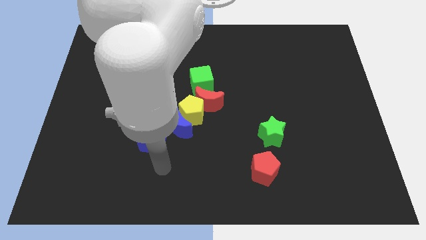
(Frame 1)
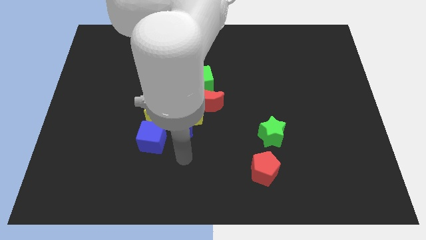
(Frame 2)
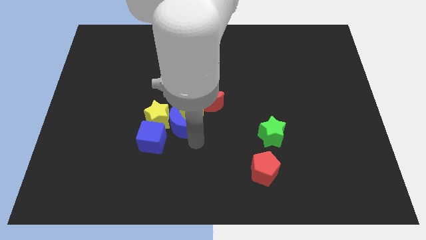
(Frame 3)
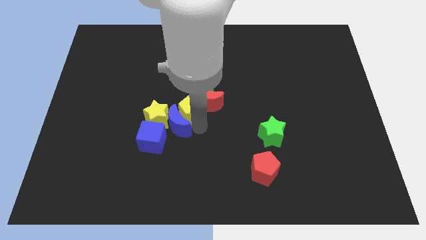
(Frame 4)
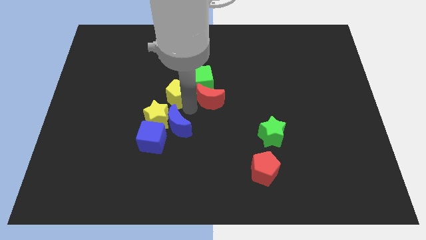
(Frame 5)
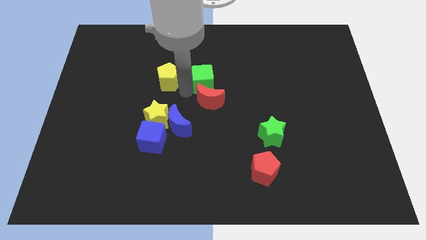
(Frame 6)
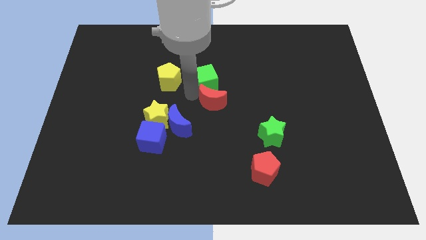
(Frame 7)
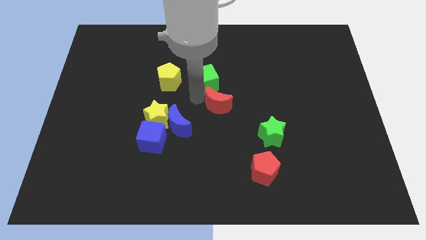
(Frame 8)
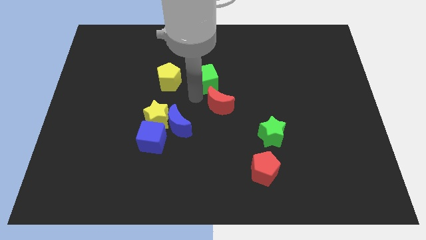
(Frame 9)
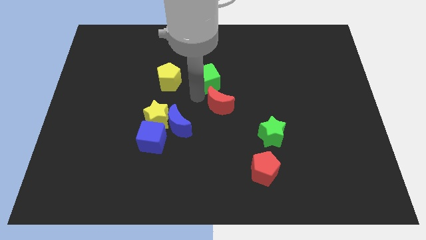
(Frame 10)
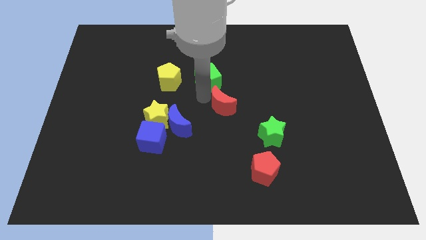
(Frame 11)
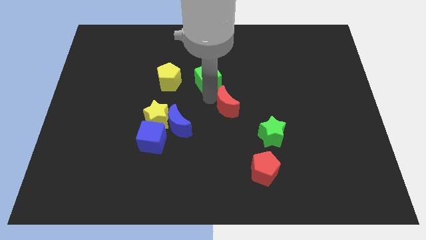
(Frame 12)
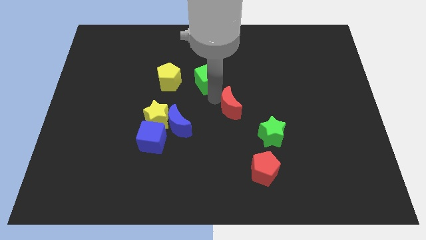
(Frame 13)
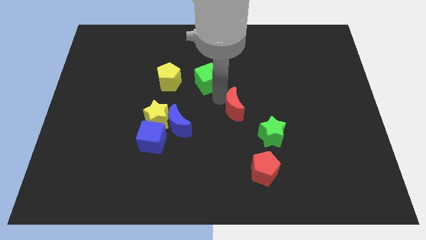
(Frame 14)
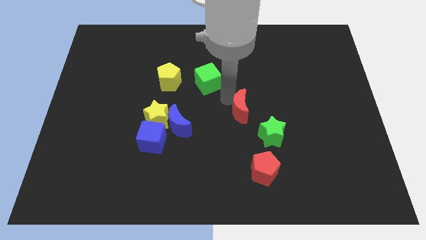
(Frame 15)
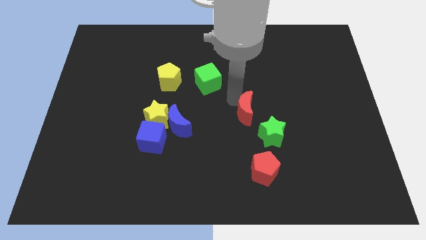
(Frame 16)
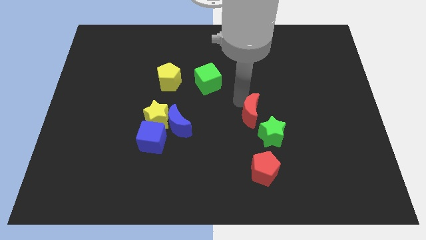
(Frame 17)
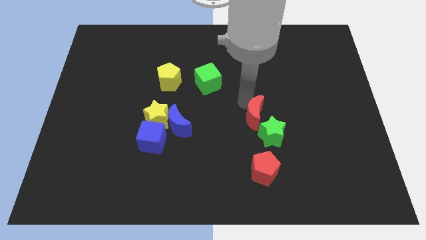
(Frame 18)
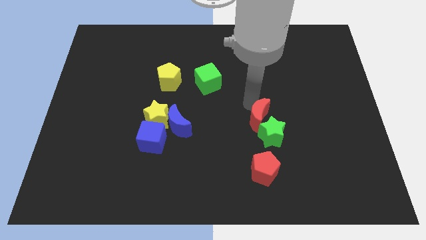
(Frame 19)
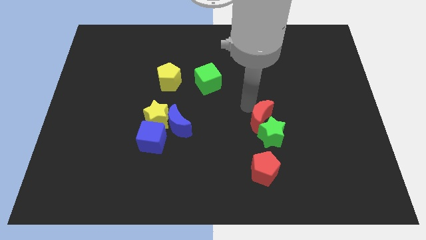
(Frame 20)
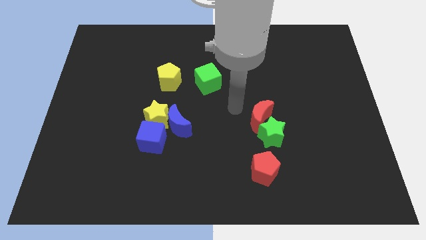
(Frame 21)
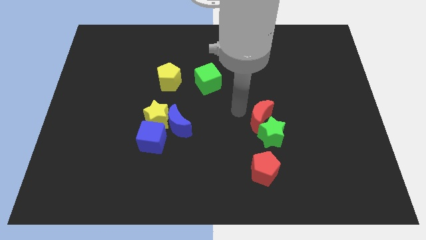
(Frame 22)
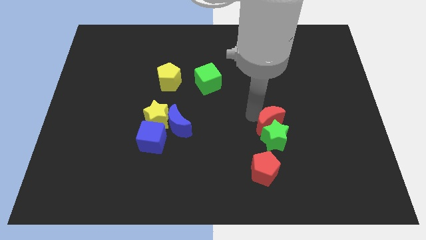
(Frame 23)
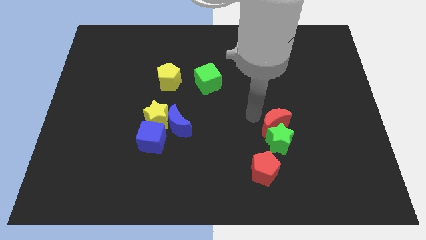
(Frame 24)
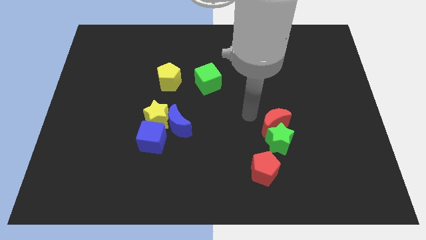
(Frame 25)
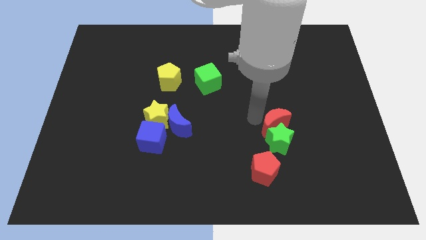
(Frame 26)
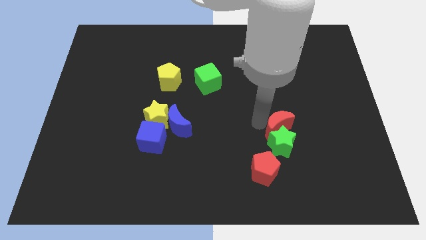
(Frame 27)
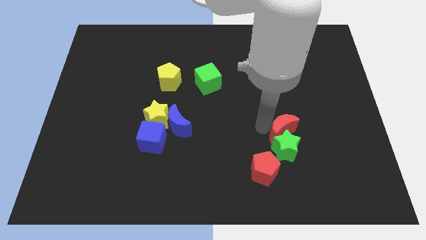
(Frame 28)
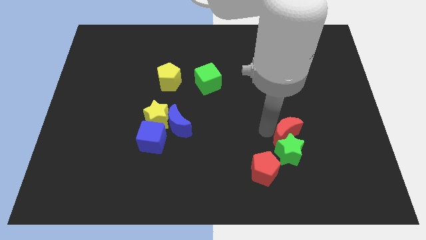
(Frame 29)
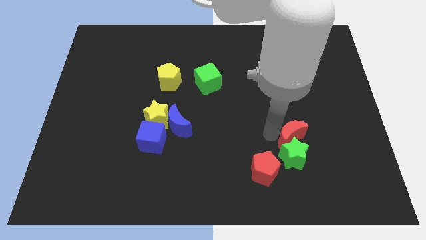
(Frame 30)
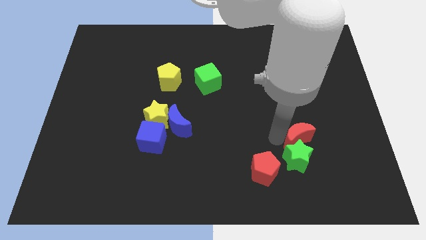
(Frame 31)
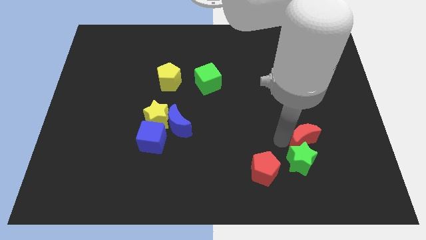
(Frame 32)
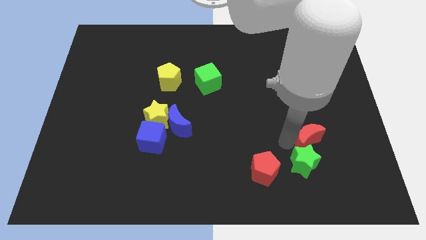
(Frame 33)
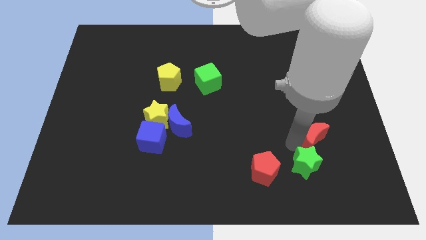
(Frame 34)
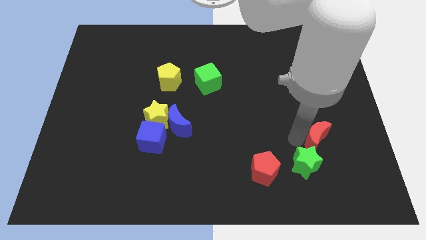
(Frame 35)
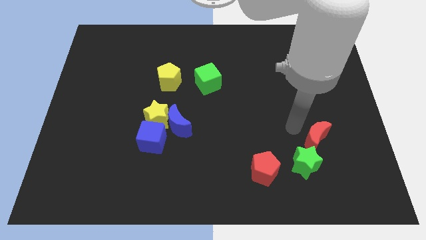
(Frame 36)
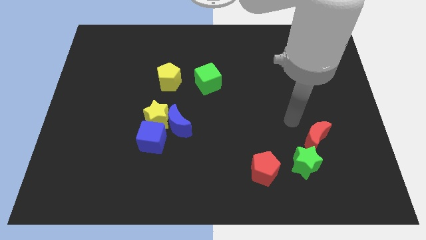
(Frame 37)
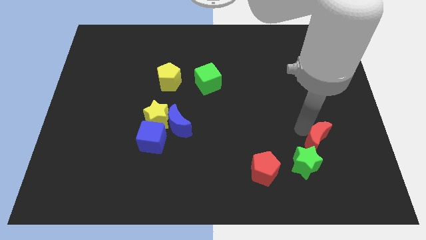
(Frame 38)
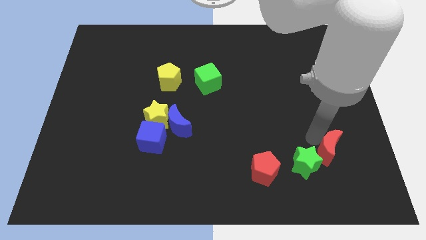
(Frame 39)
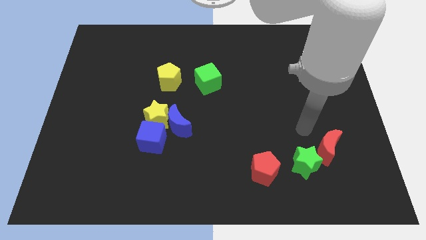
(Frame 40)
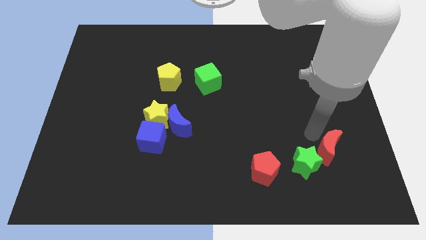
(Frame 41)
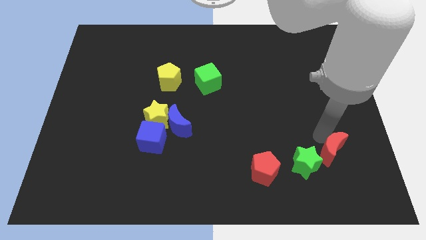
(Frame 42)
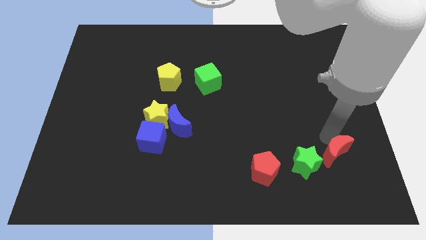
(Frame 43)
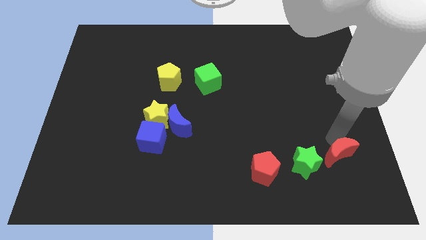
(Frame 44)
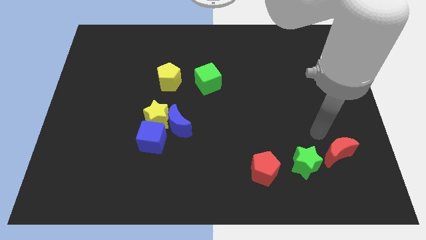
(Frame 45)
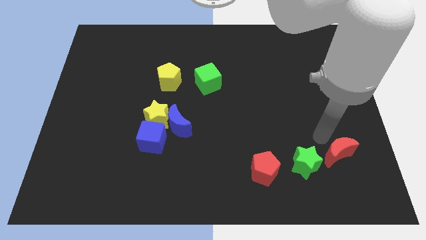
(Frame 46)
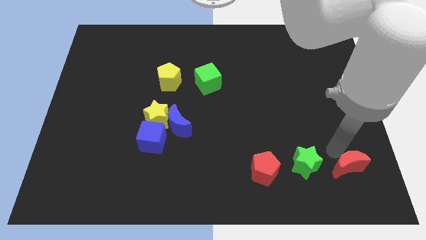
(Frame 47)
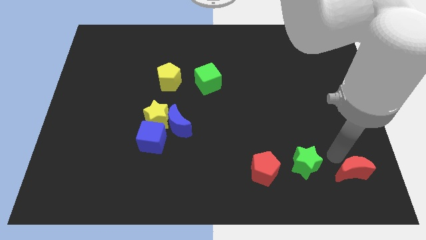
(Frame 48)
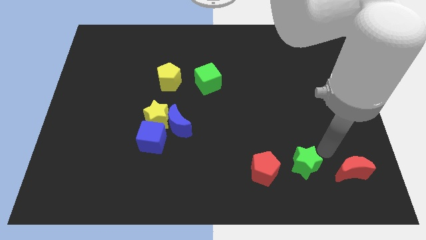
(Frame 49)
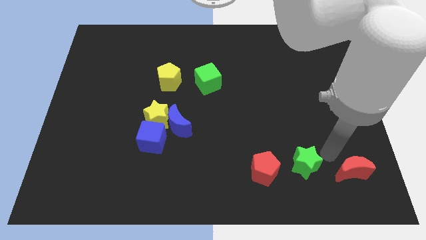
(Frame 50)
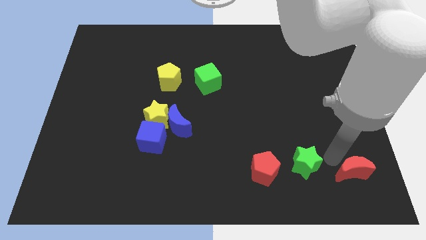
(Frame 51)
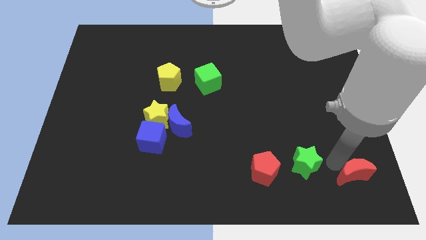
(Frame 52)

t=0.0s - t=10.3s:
push the red moon to the bottom right of the board

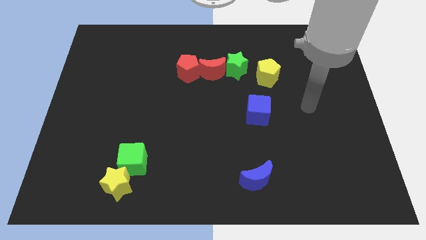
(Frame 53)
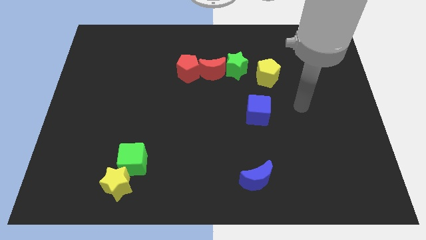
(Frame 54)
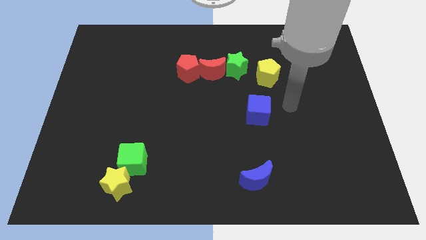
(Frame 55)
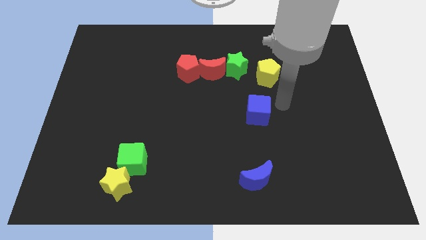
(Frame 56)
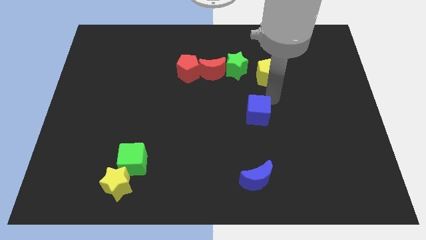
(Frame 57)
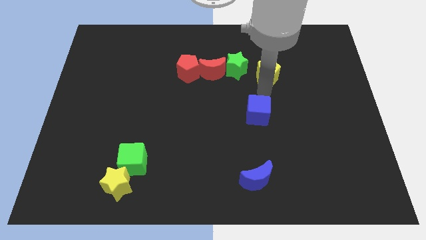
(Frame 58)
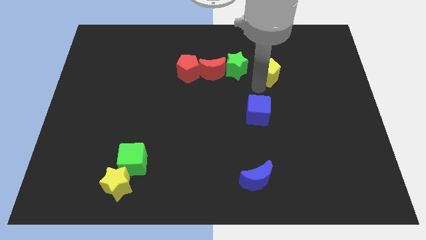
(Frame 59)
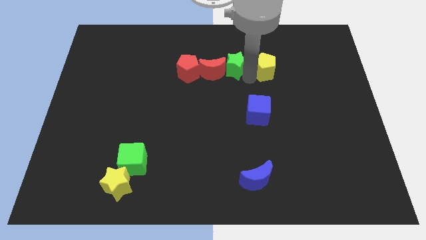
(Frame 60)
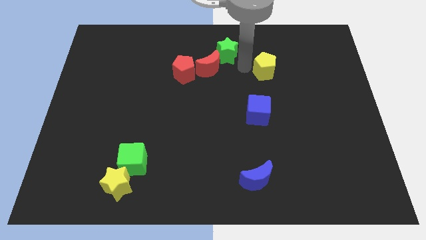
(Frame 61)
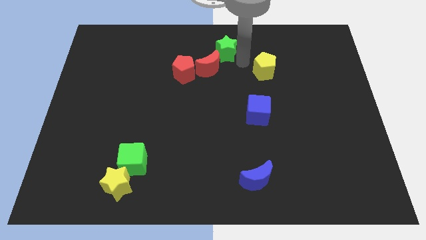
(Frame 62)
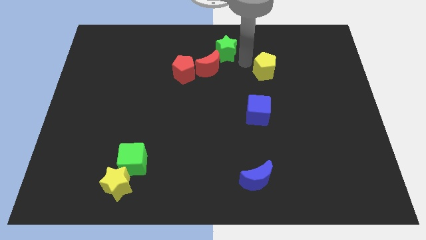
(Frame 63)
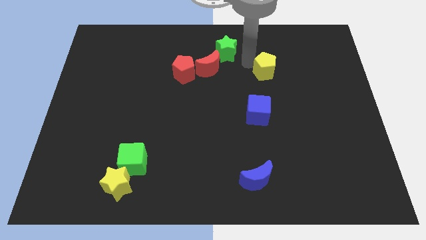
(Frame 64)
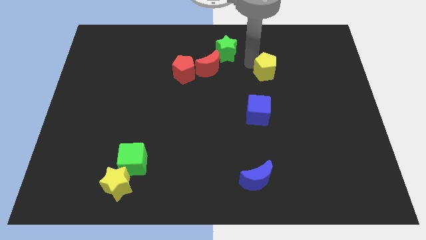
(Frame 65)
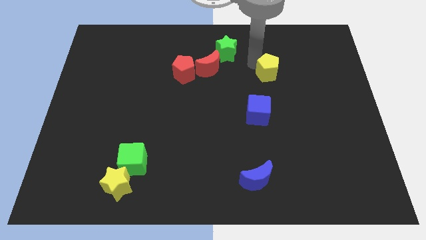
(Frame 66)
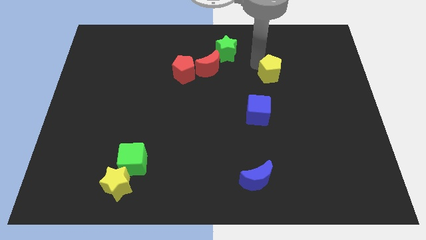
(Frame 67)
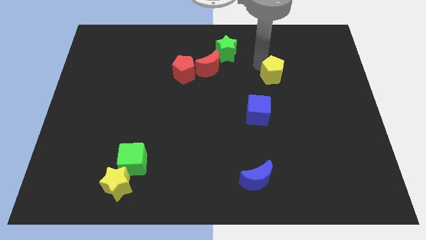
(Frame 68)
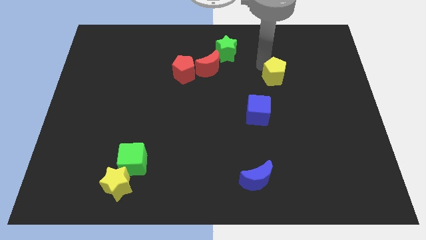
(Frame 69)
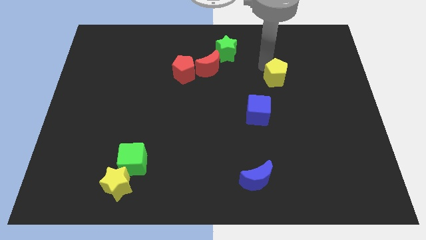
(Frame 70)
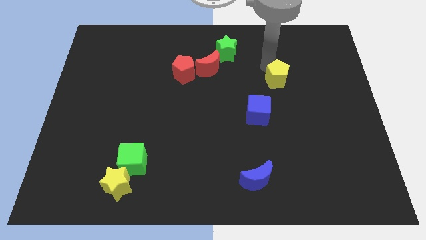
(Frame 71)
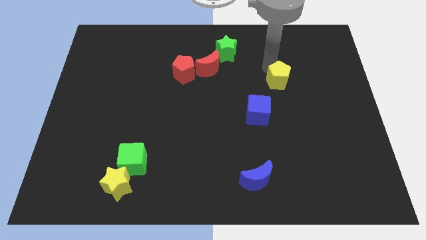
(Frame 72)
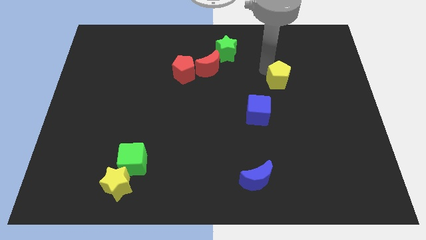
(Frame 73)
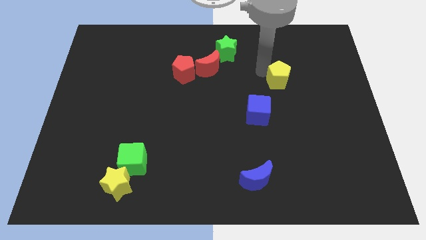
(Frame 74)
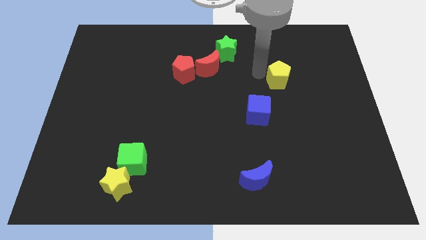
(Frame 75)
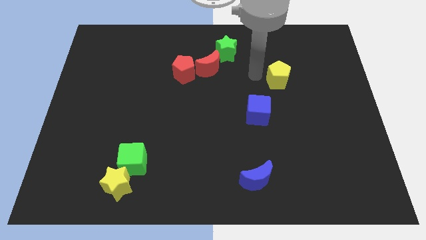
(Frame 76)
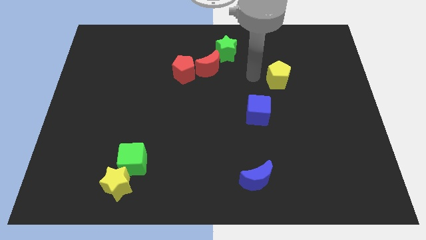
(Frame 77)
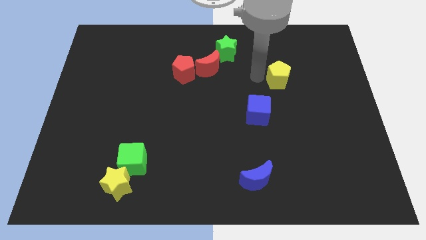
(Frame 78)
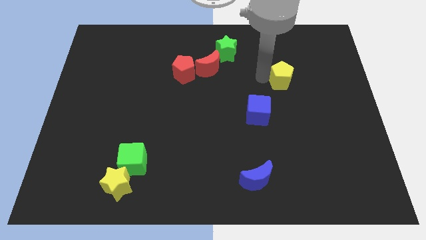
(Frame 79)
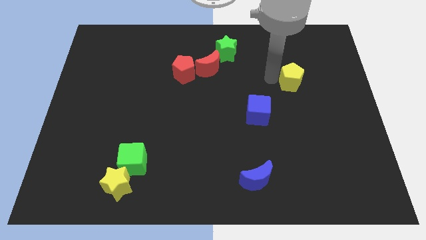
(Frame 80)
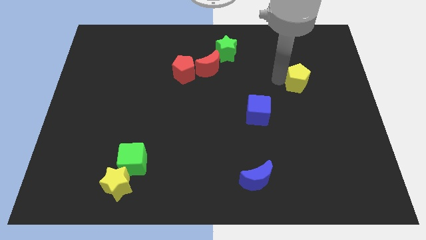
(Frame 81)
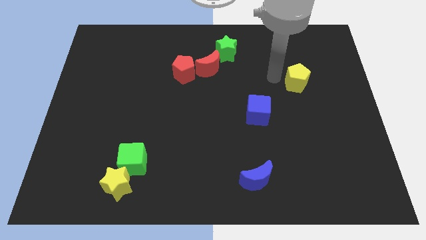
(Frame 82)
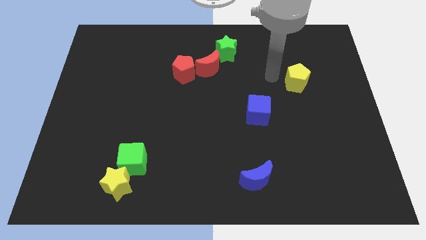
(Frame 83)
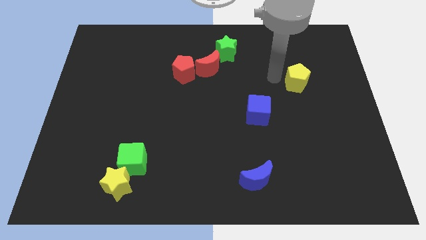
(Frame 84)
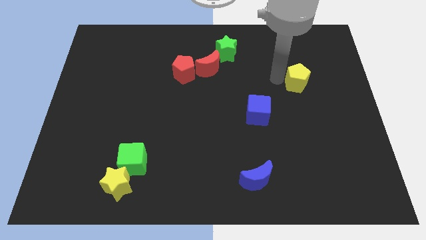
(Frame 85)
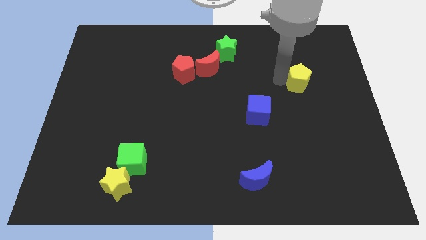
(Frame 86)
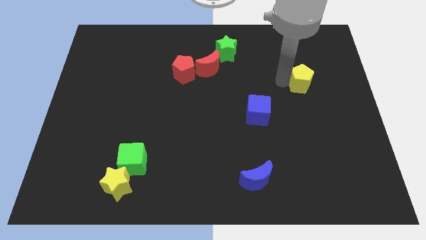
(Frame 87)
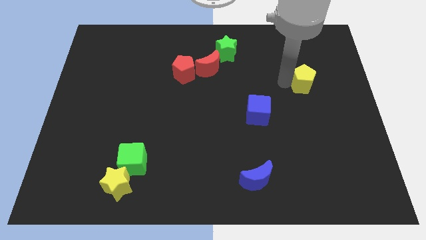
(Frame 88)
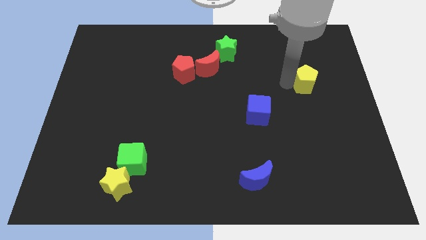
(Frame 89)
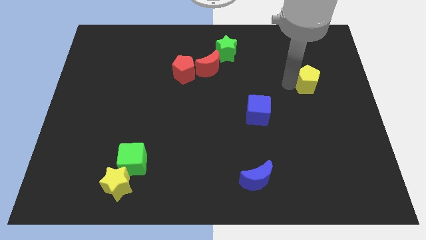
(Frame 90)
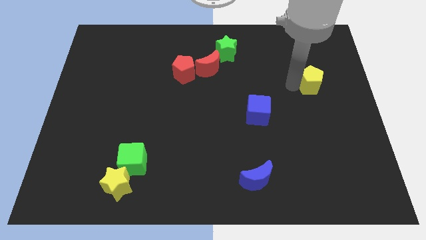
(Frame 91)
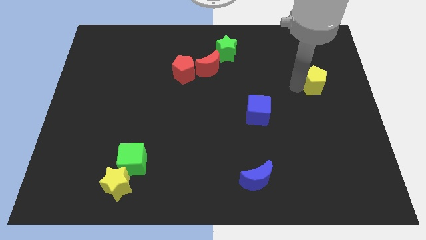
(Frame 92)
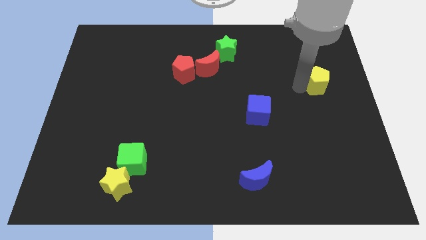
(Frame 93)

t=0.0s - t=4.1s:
push the yellow pentagon to the right side
